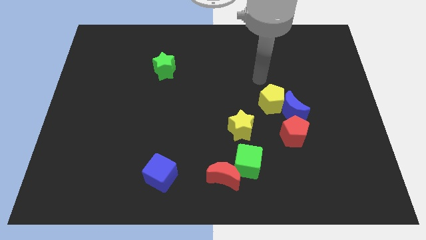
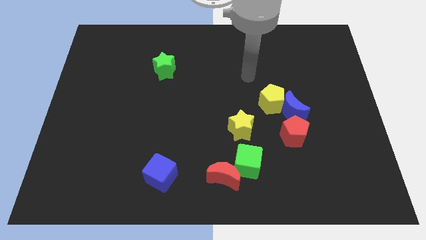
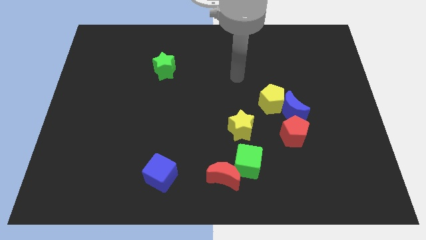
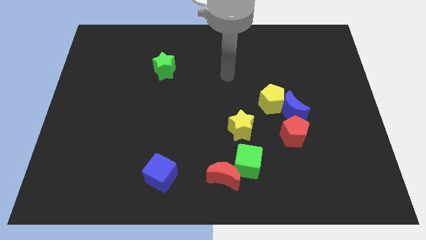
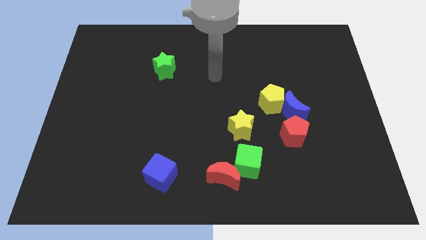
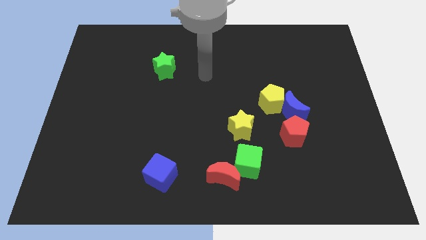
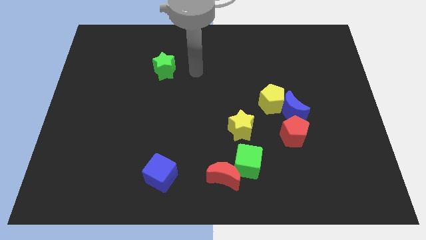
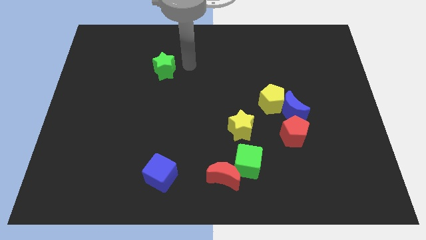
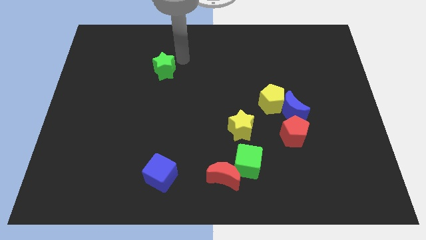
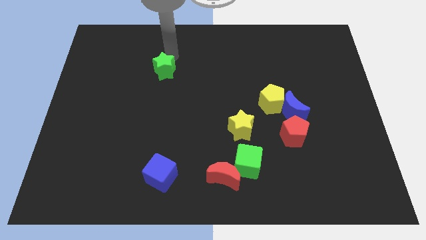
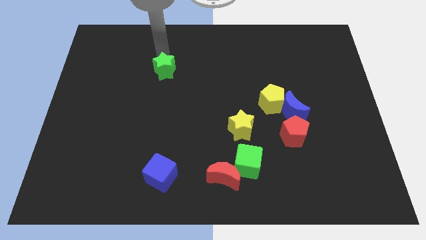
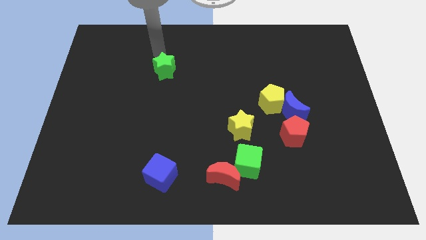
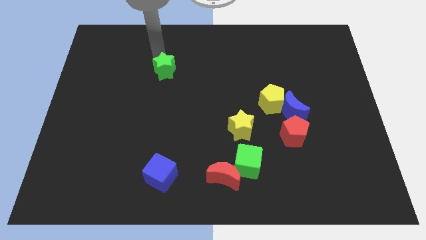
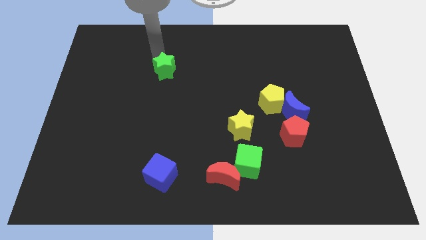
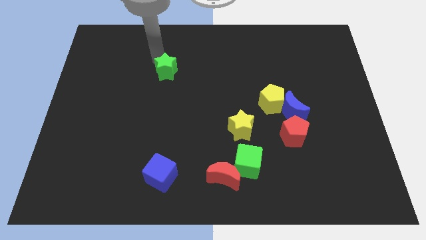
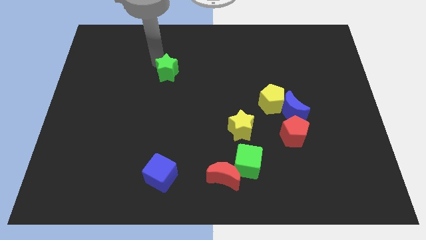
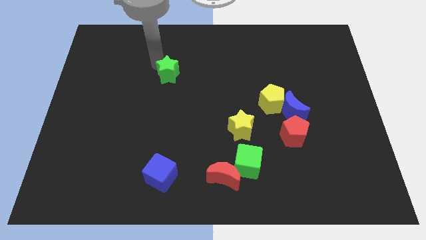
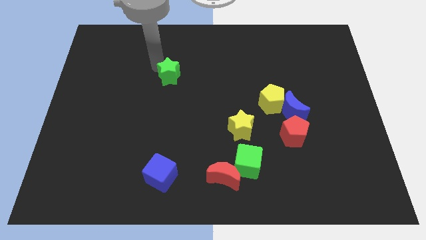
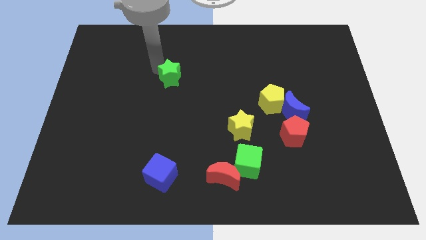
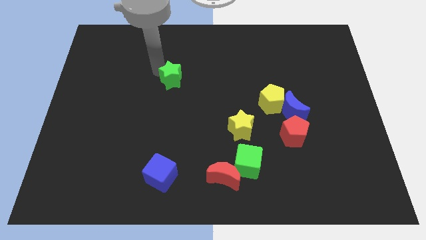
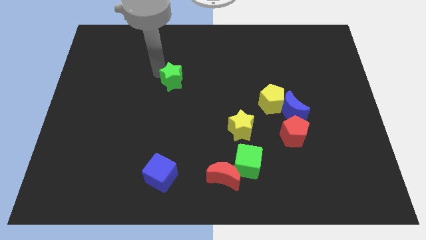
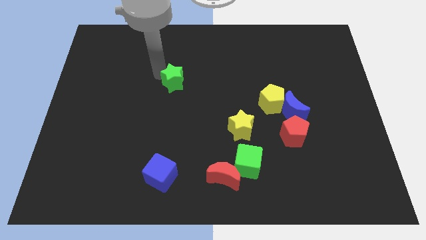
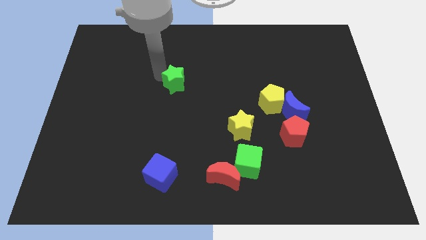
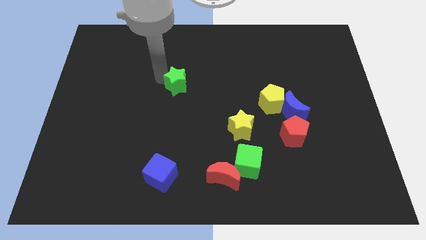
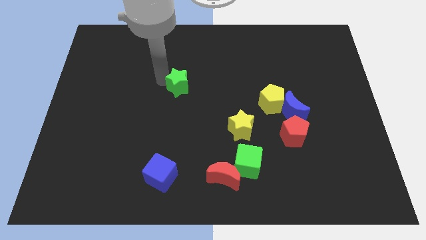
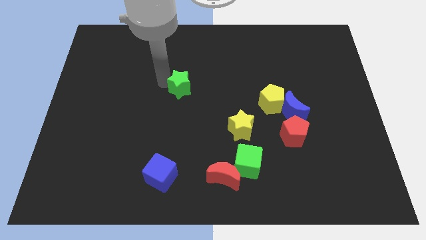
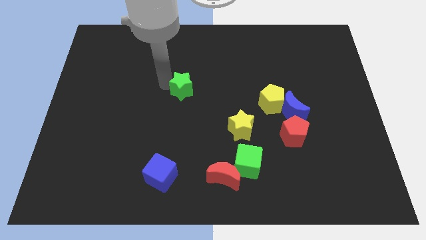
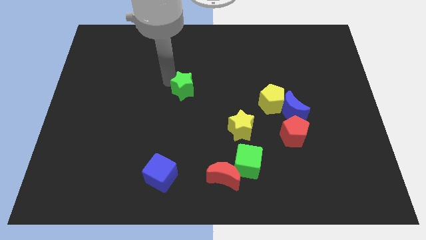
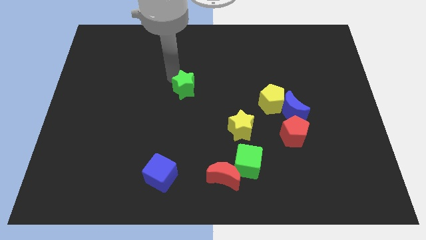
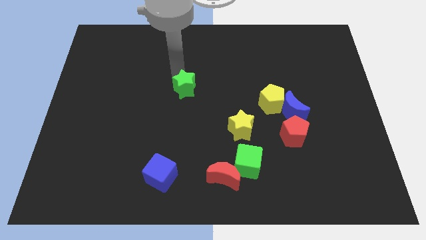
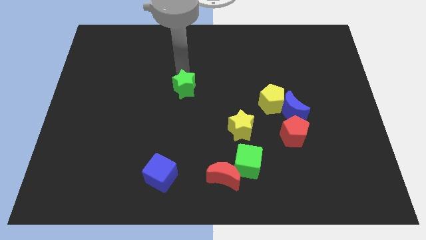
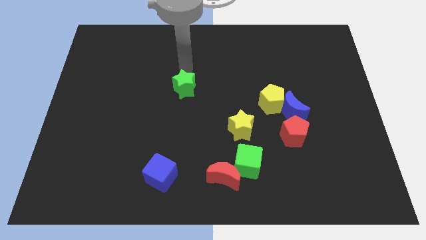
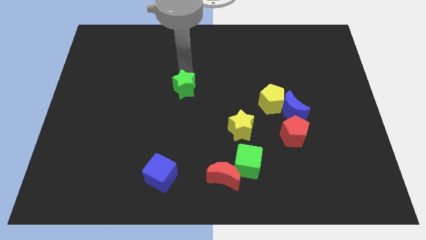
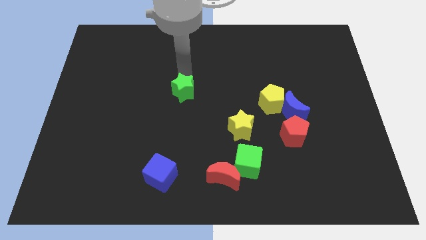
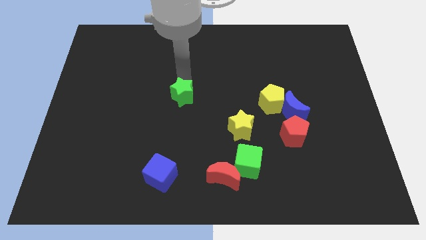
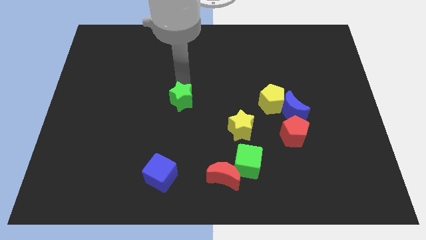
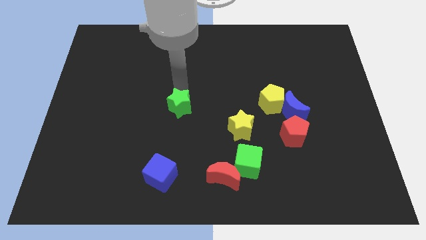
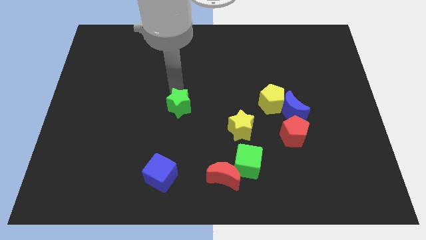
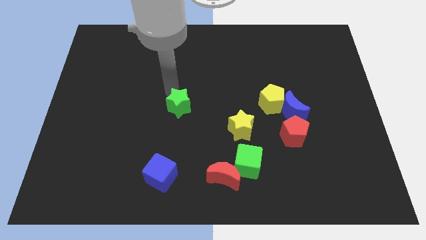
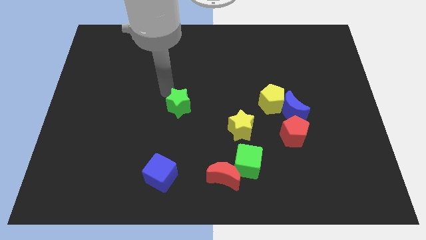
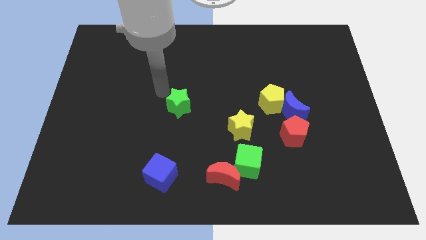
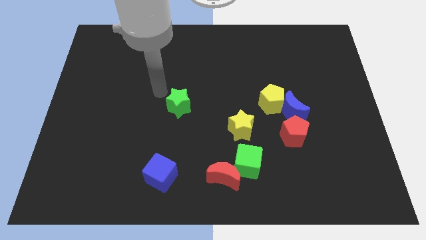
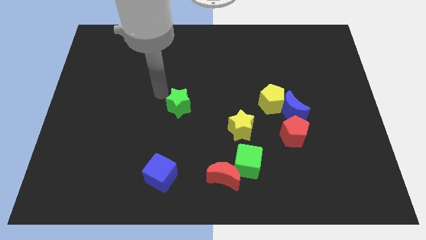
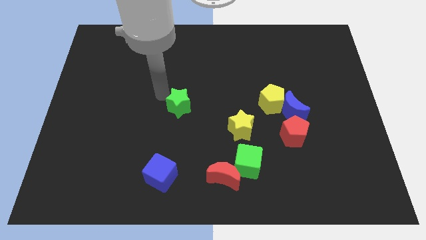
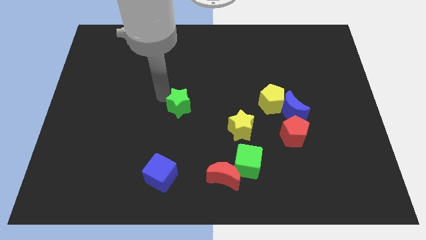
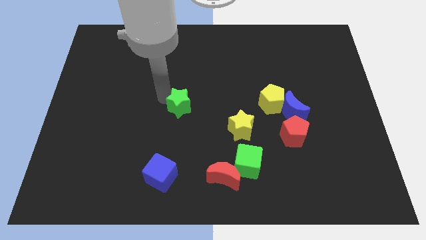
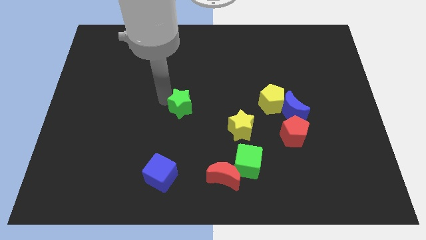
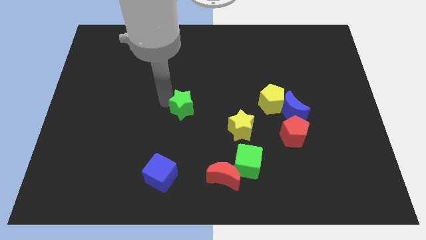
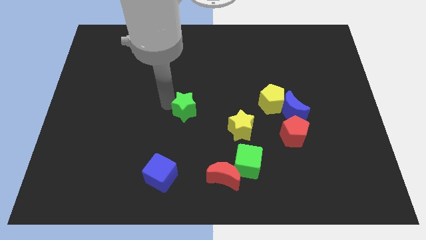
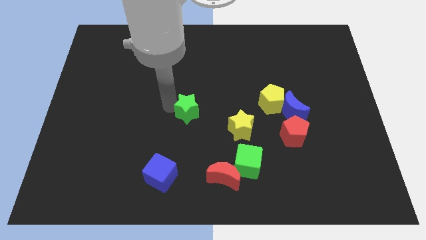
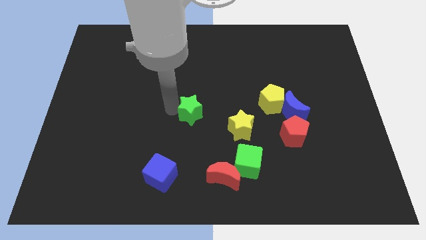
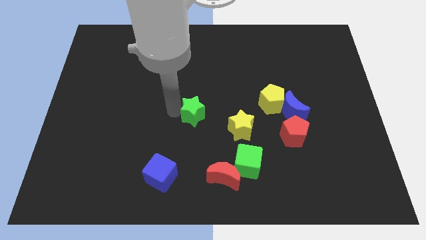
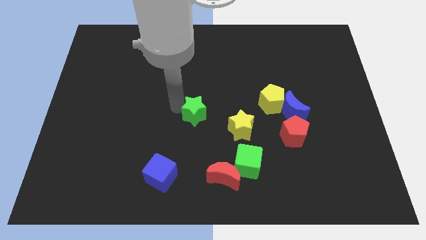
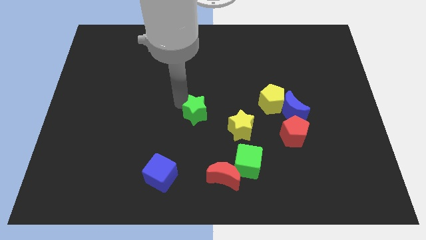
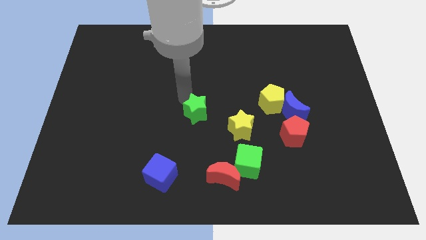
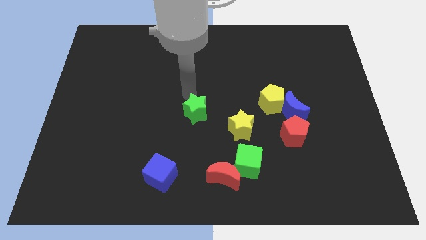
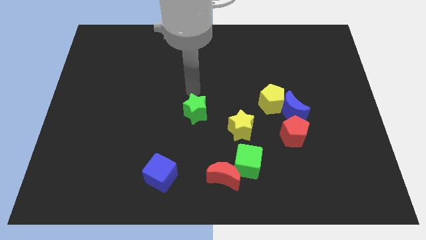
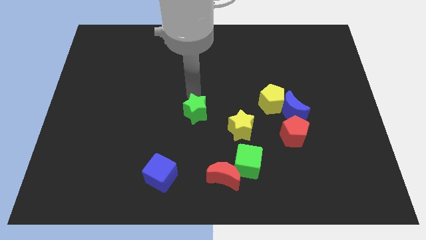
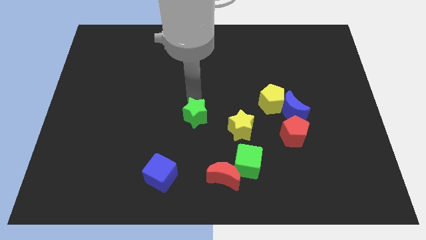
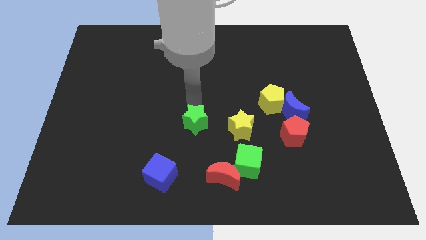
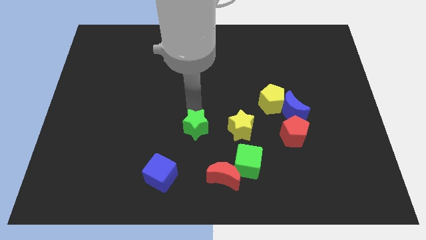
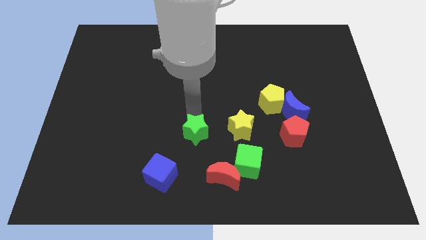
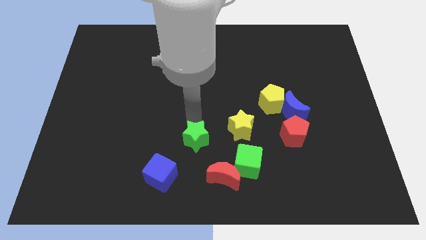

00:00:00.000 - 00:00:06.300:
push the green star to the top left of the red moon

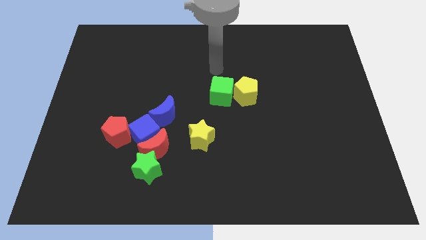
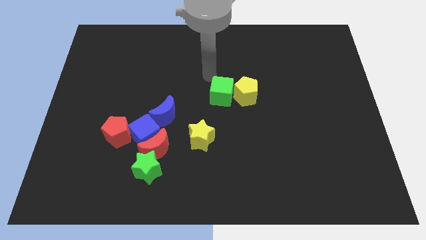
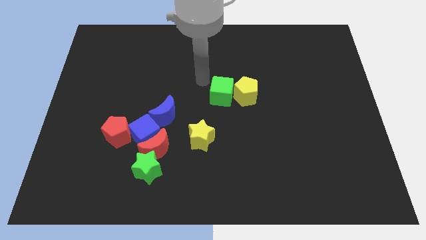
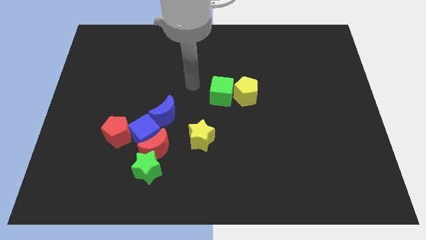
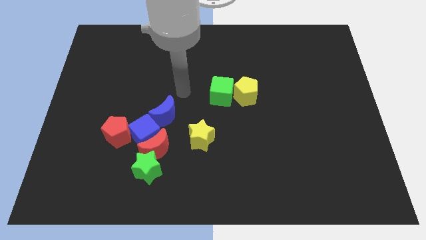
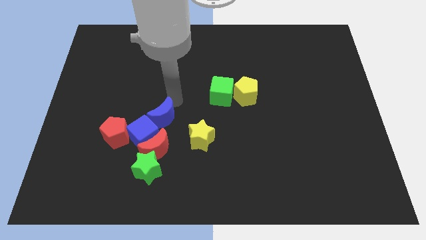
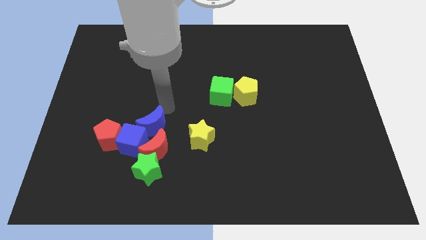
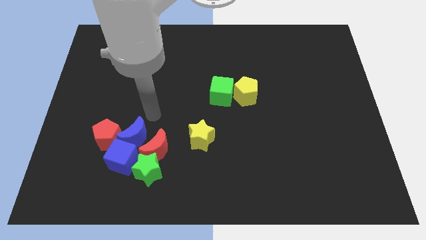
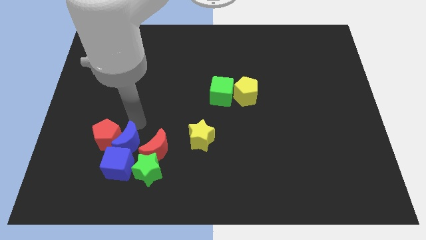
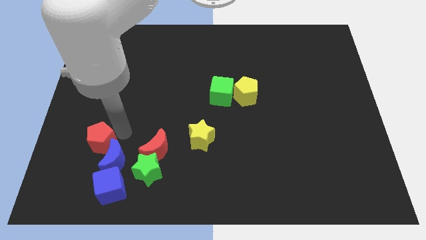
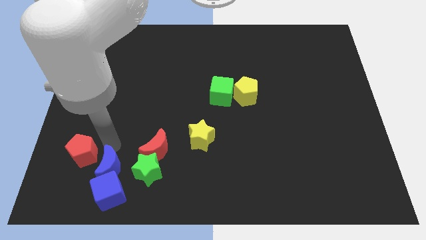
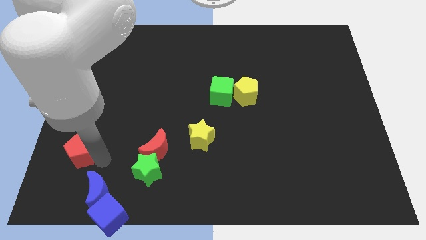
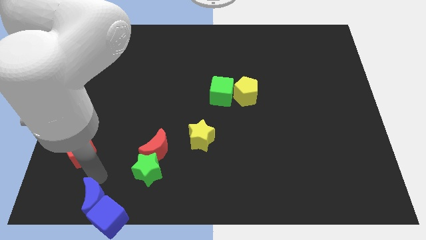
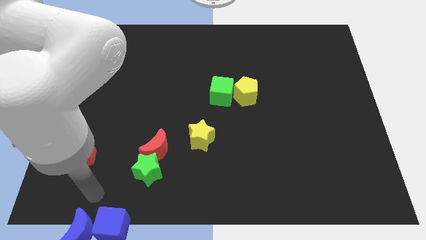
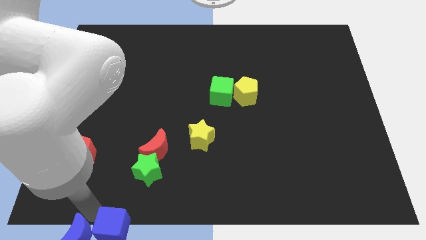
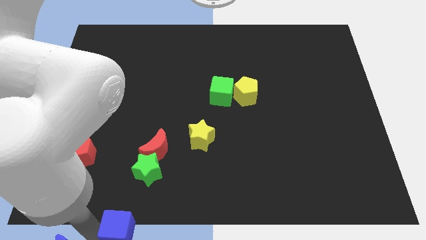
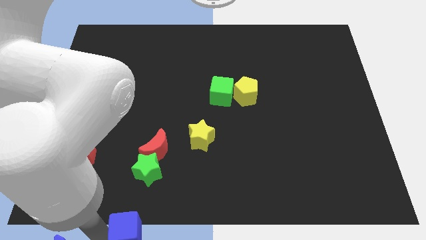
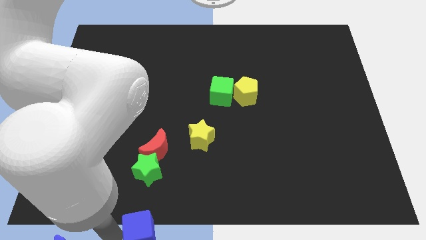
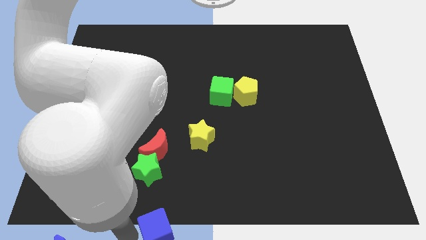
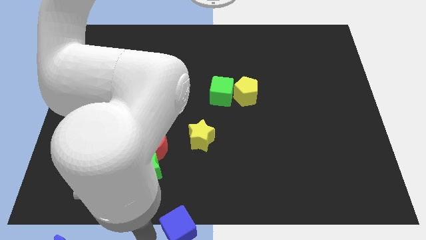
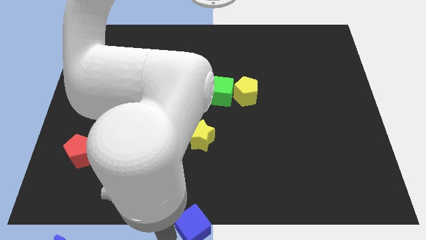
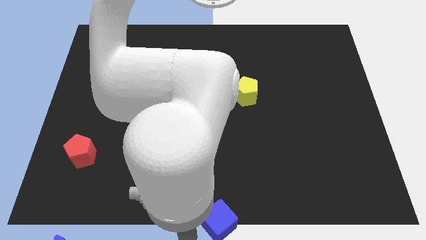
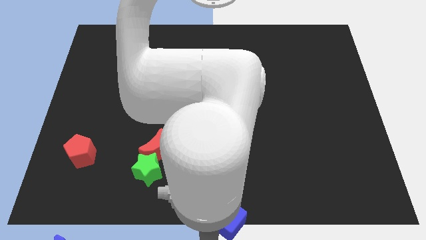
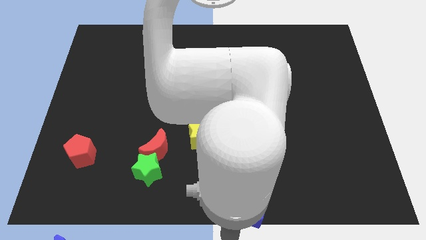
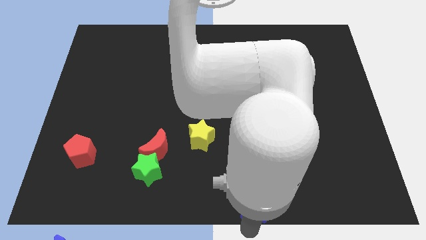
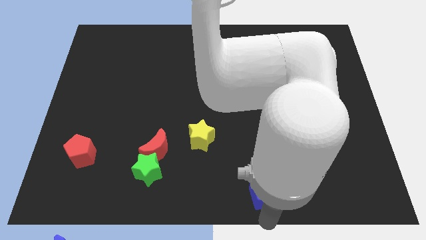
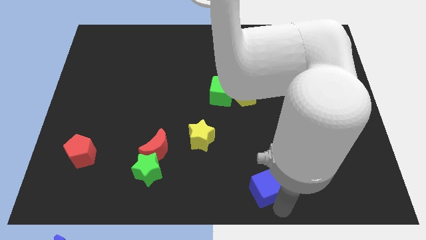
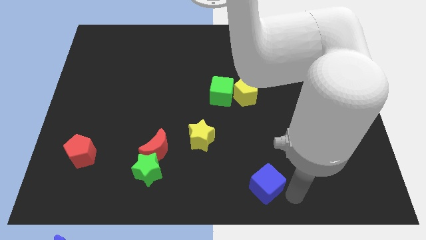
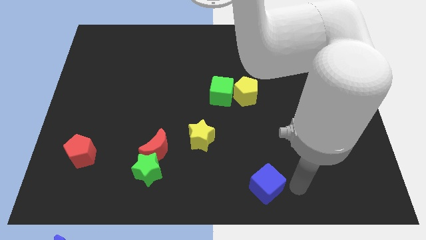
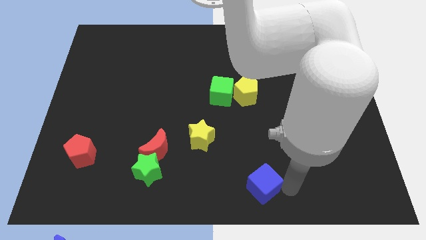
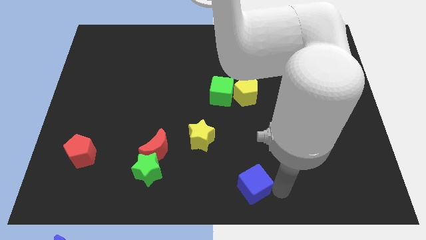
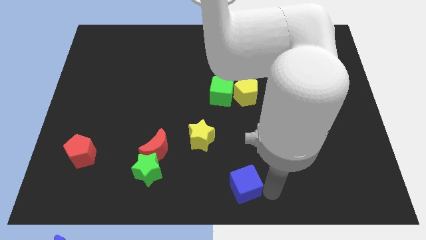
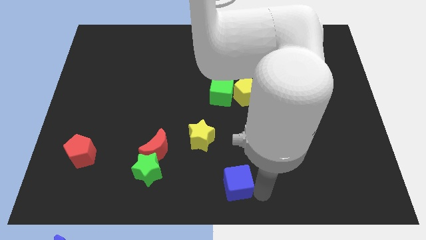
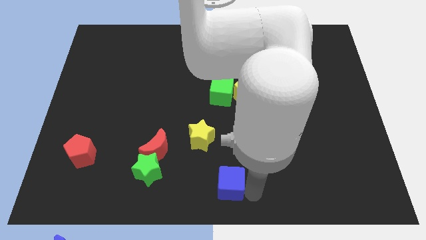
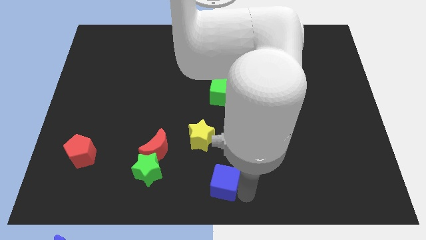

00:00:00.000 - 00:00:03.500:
slide the blue cube to the bottom side of the yellow star
